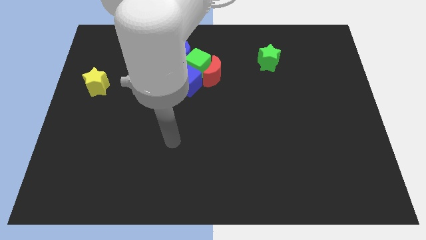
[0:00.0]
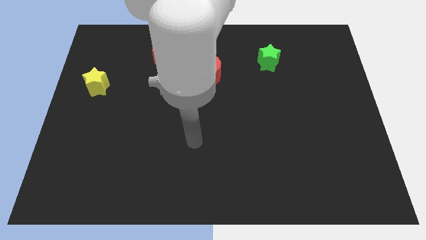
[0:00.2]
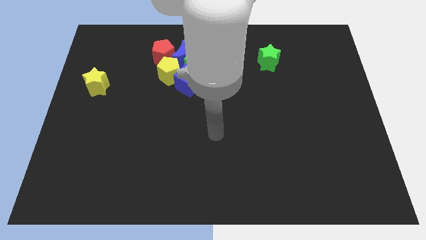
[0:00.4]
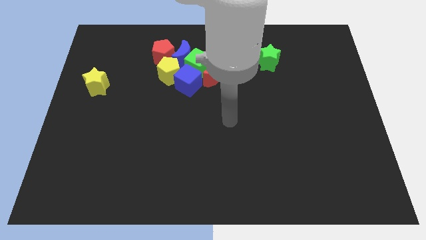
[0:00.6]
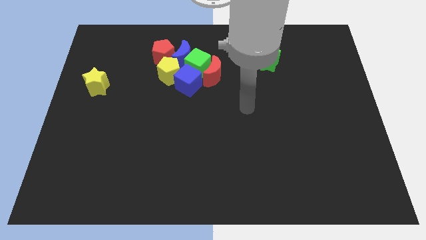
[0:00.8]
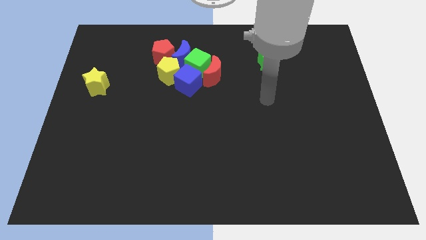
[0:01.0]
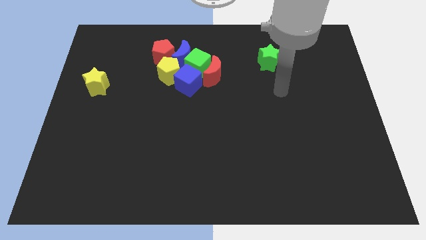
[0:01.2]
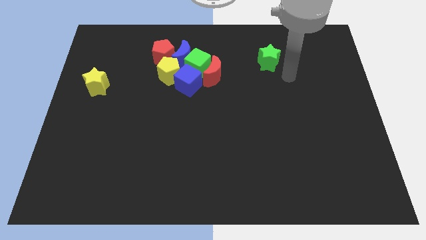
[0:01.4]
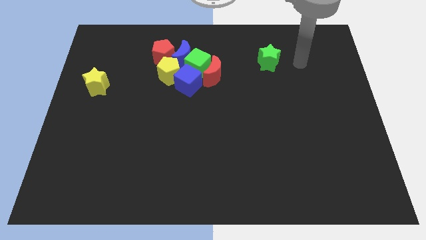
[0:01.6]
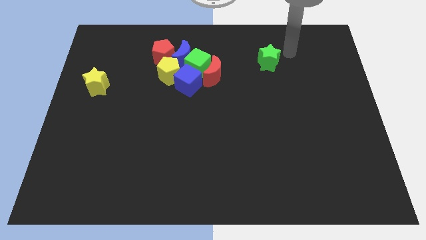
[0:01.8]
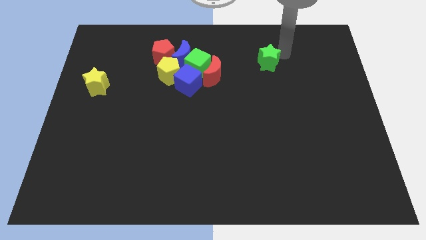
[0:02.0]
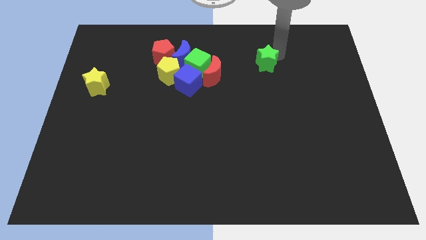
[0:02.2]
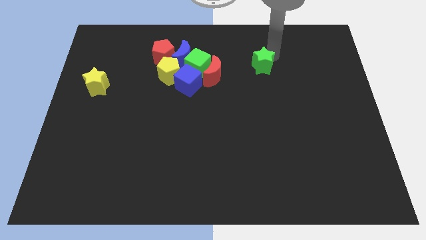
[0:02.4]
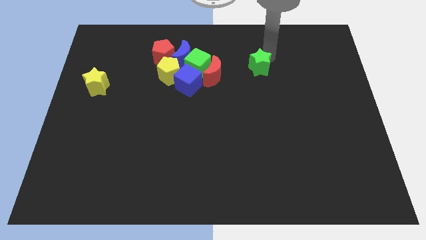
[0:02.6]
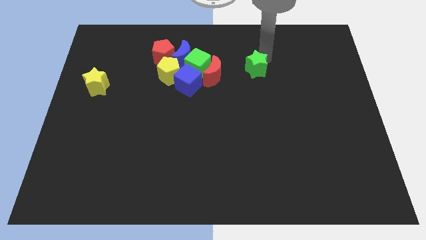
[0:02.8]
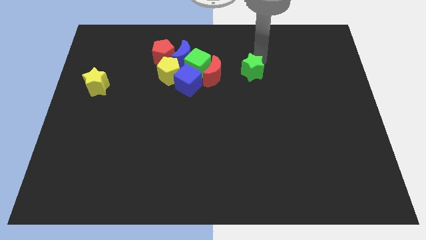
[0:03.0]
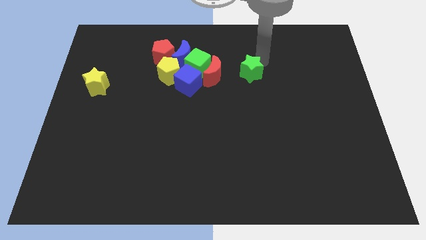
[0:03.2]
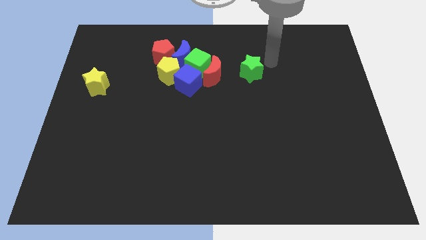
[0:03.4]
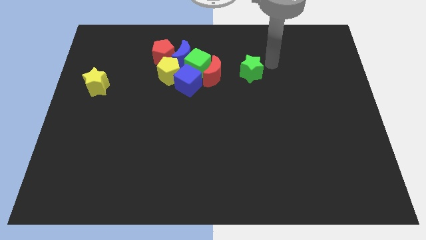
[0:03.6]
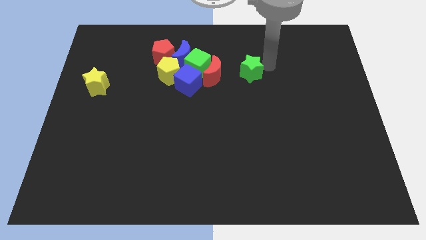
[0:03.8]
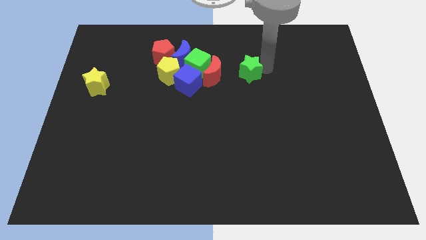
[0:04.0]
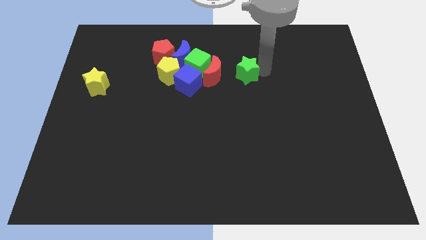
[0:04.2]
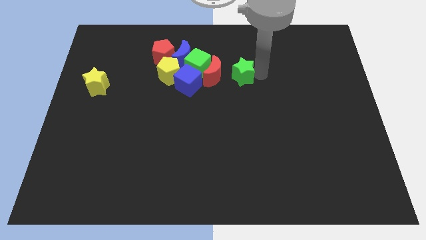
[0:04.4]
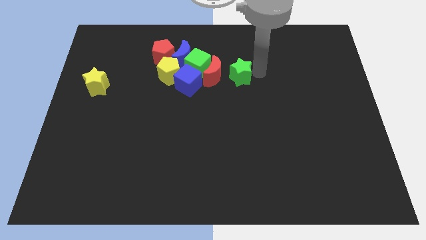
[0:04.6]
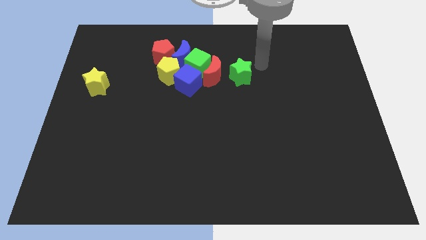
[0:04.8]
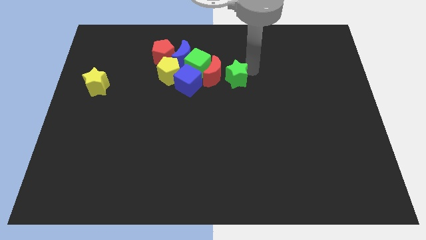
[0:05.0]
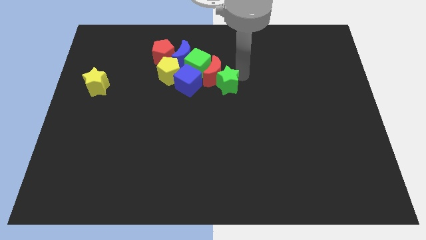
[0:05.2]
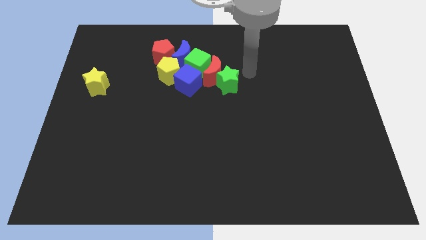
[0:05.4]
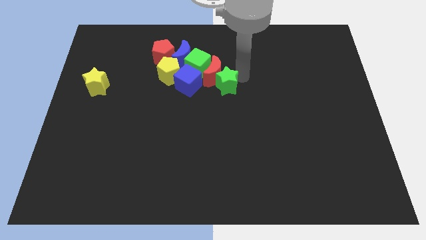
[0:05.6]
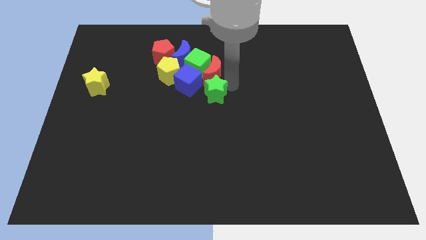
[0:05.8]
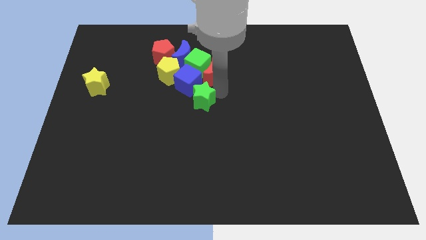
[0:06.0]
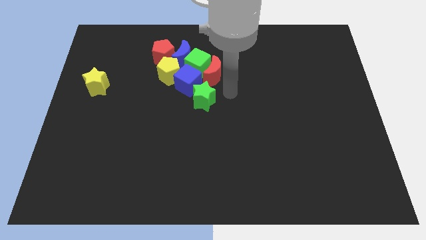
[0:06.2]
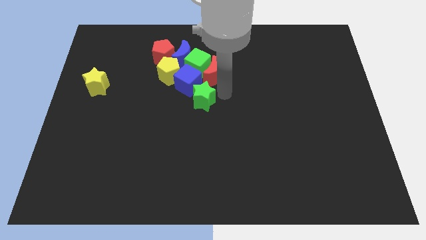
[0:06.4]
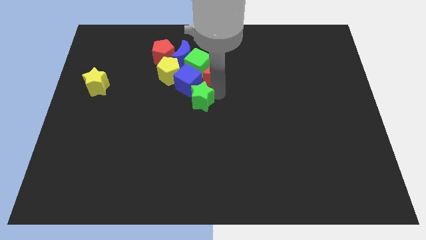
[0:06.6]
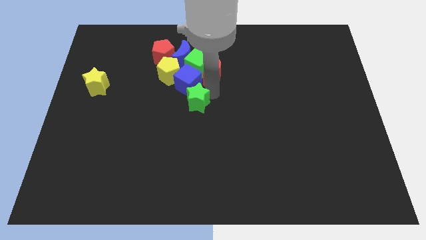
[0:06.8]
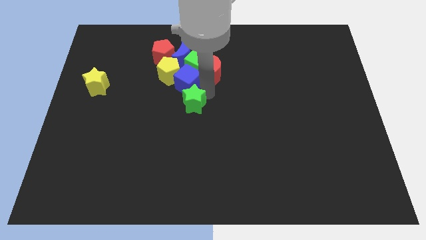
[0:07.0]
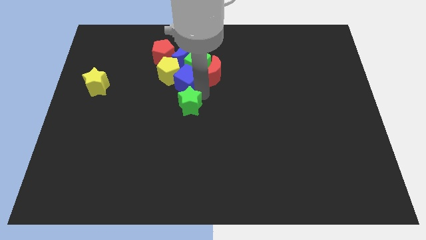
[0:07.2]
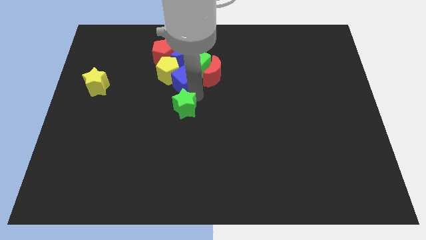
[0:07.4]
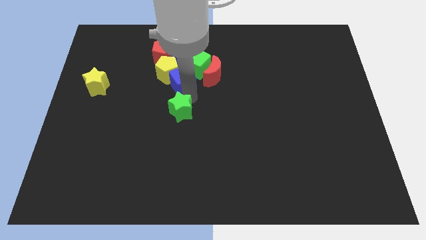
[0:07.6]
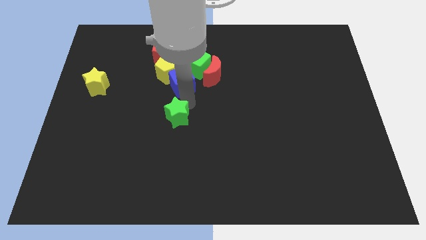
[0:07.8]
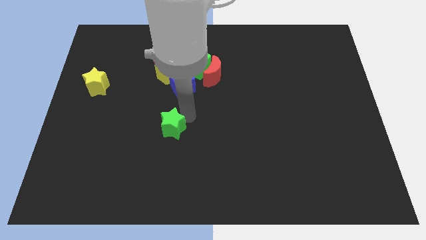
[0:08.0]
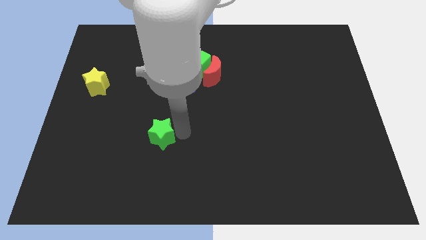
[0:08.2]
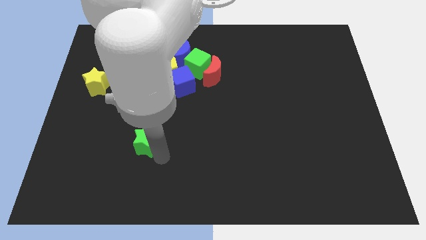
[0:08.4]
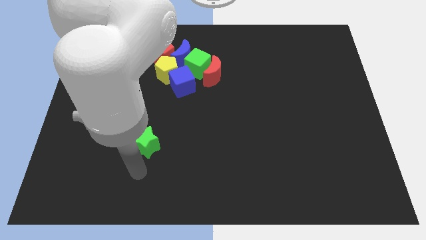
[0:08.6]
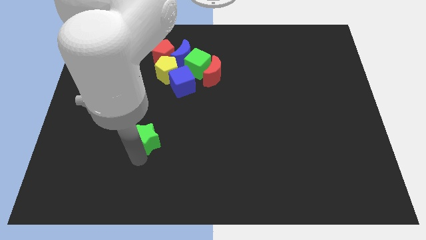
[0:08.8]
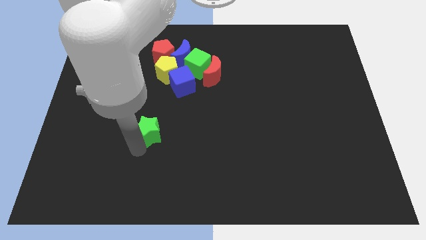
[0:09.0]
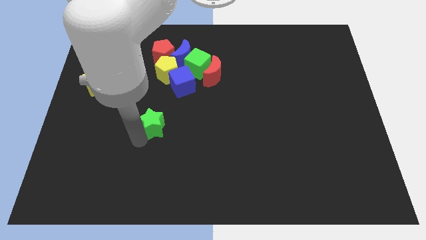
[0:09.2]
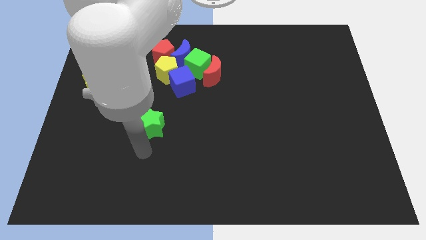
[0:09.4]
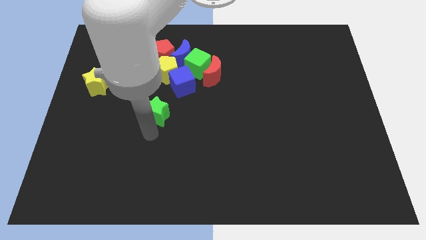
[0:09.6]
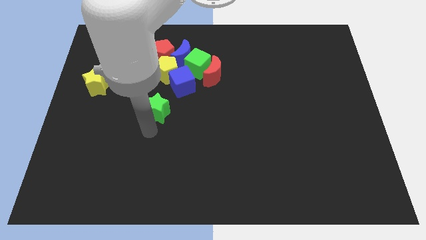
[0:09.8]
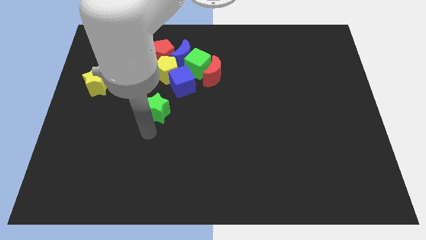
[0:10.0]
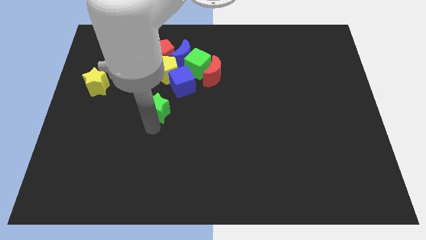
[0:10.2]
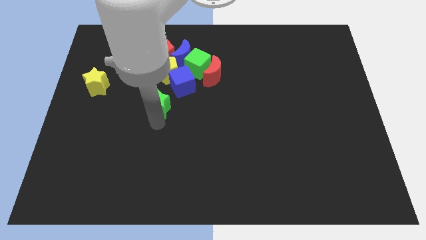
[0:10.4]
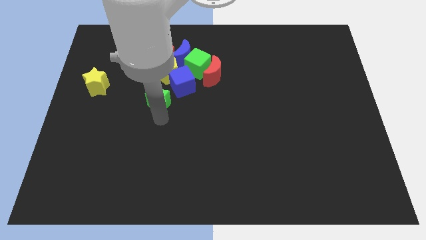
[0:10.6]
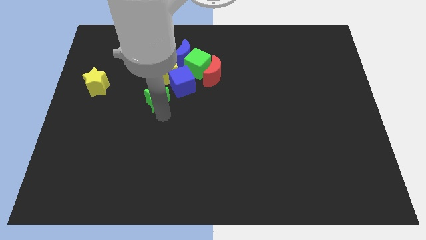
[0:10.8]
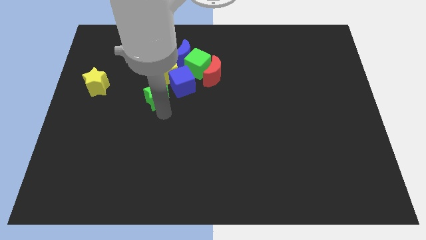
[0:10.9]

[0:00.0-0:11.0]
move the green star just left of the blue cube

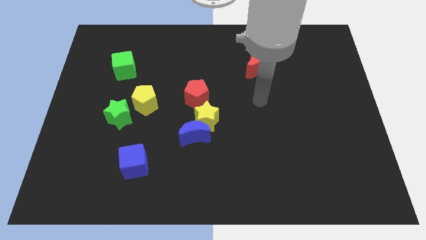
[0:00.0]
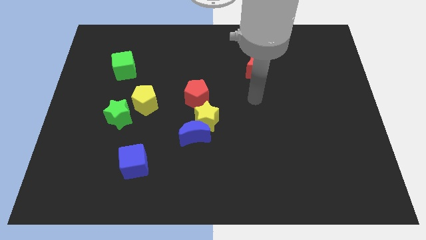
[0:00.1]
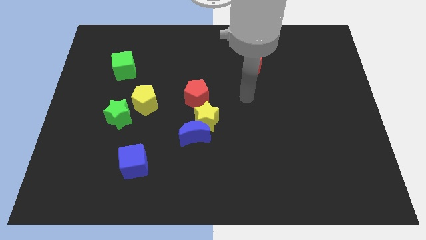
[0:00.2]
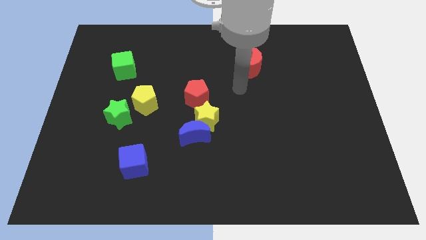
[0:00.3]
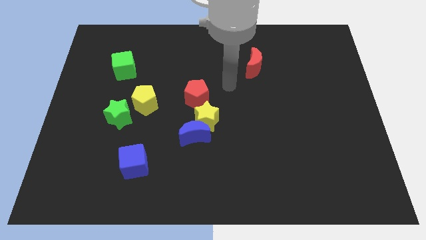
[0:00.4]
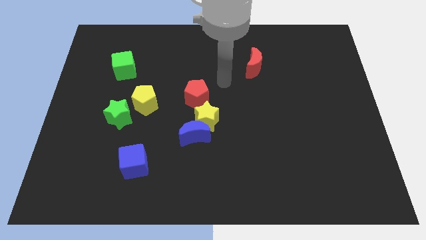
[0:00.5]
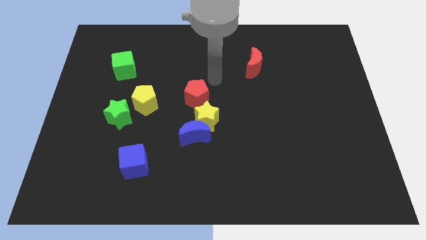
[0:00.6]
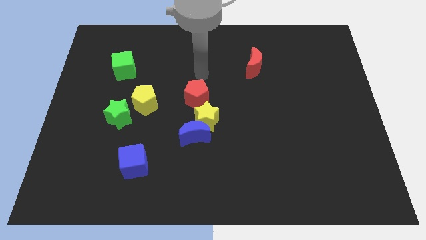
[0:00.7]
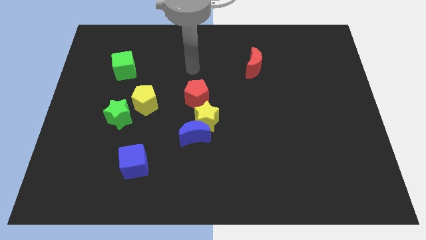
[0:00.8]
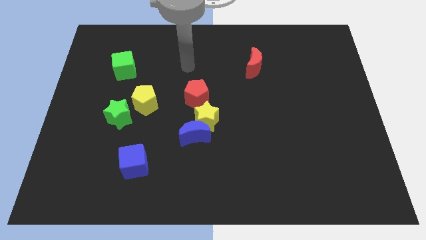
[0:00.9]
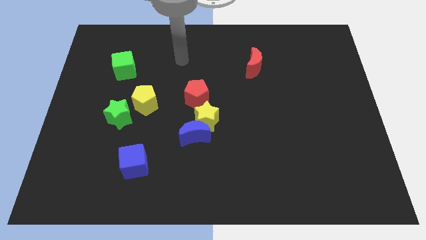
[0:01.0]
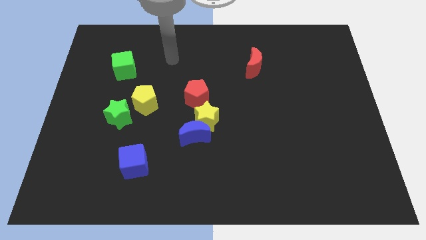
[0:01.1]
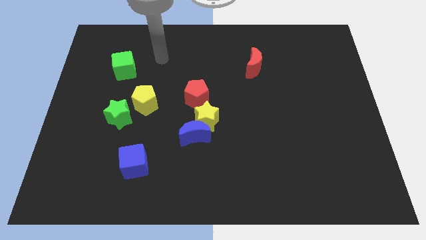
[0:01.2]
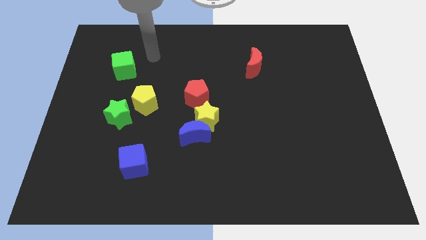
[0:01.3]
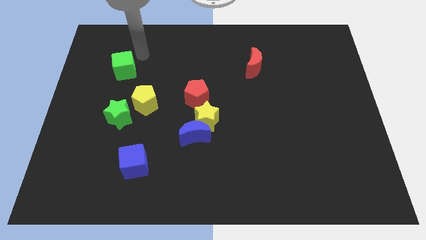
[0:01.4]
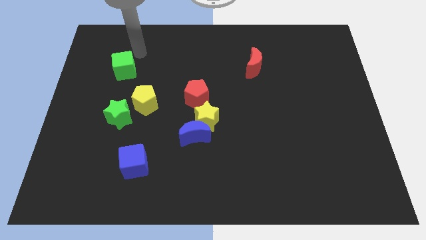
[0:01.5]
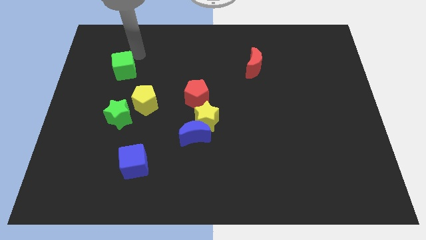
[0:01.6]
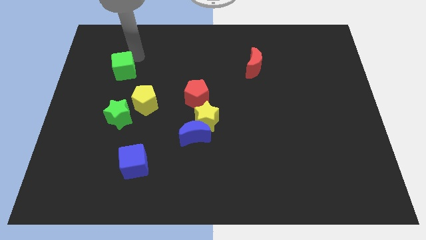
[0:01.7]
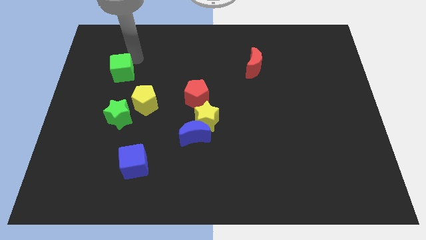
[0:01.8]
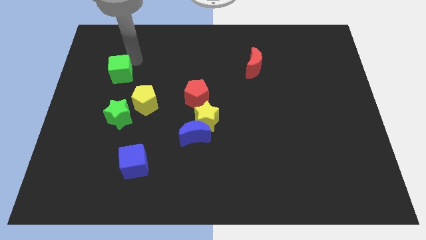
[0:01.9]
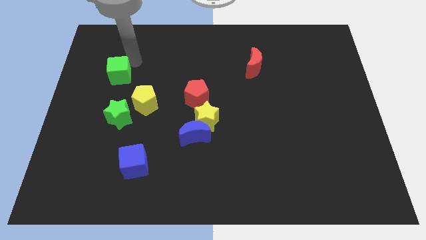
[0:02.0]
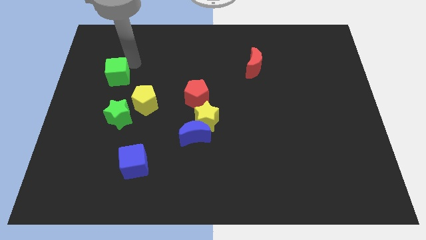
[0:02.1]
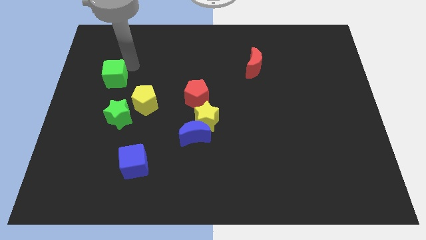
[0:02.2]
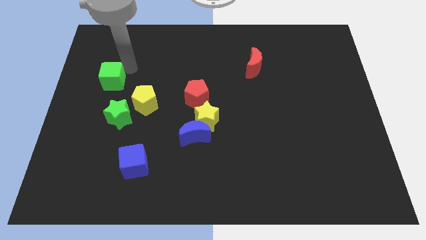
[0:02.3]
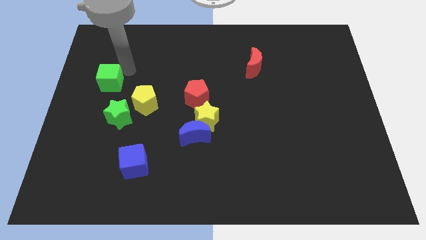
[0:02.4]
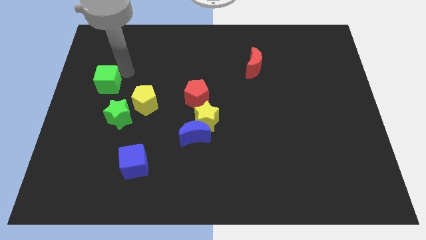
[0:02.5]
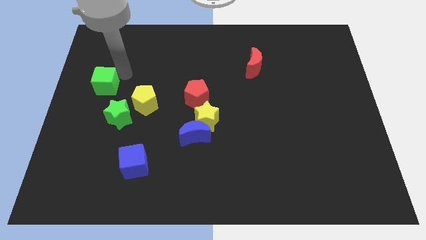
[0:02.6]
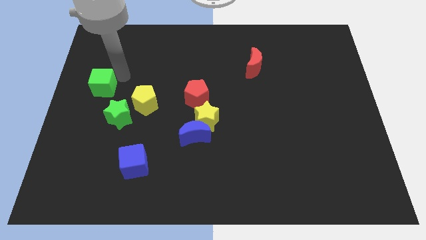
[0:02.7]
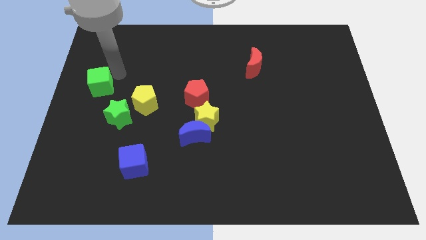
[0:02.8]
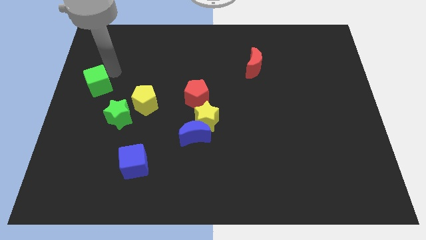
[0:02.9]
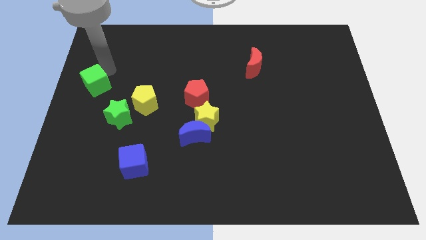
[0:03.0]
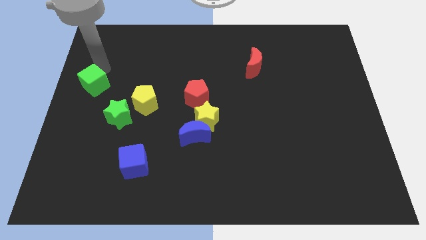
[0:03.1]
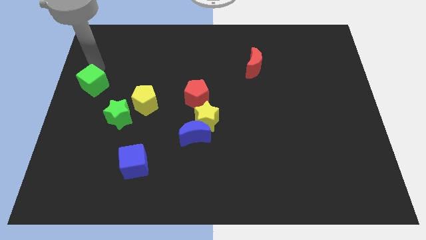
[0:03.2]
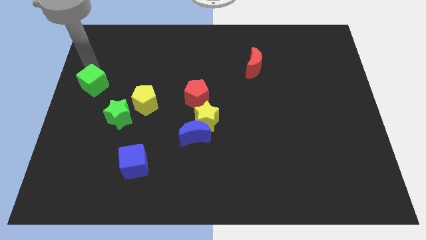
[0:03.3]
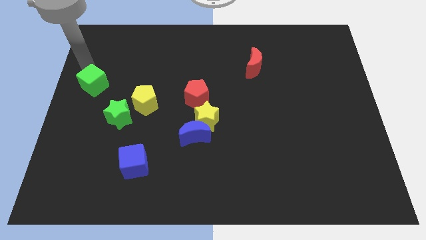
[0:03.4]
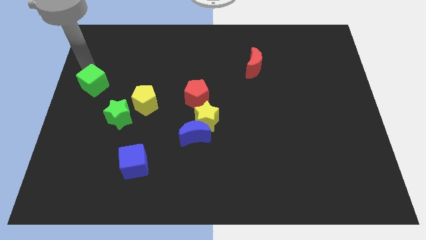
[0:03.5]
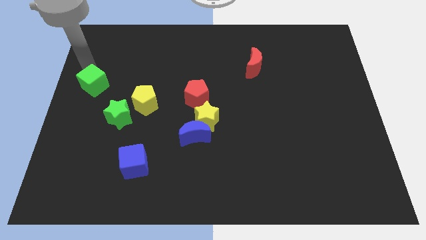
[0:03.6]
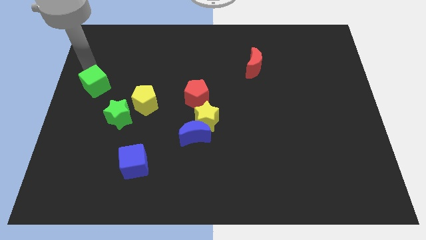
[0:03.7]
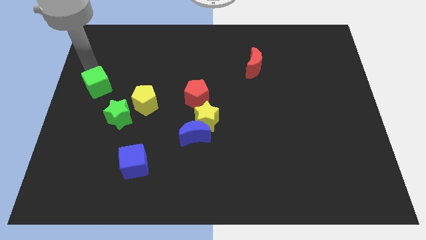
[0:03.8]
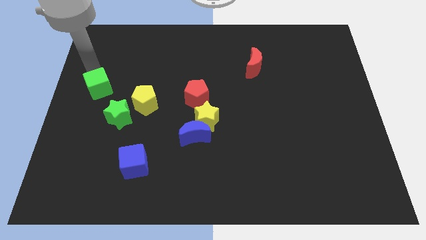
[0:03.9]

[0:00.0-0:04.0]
push the green cube to the left of the yellow pentagon
